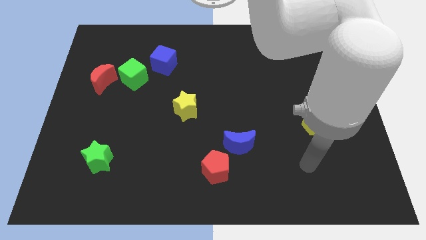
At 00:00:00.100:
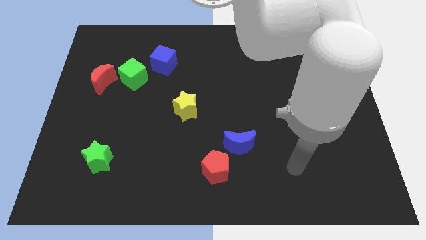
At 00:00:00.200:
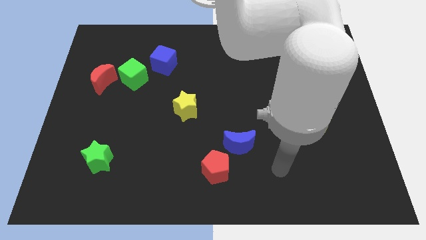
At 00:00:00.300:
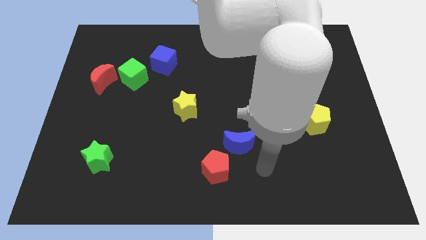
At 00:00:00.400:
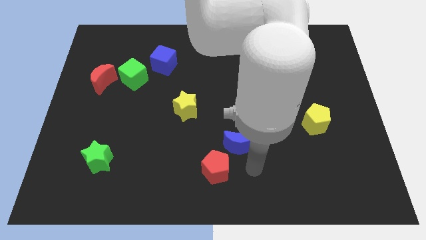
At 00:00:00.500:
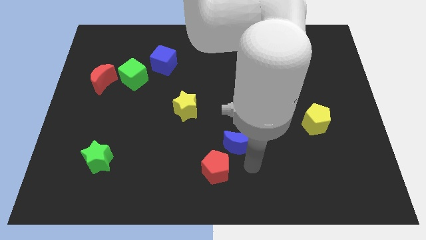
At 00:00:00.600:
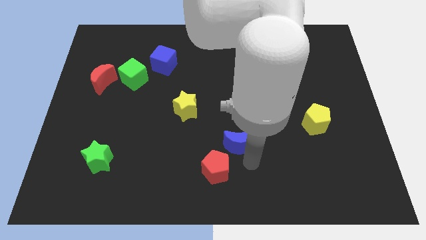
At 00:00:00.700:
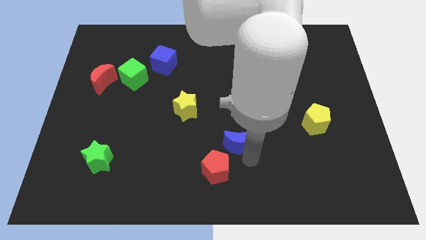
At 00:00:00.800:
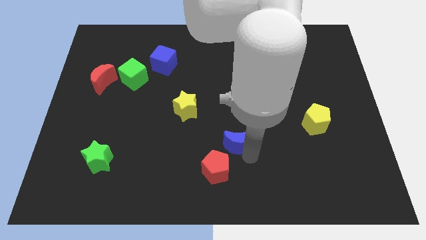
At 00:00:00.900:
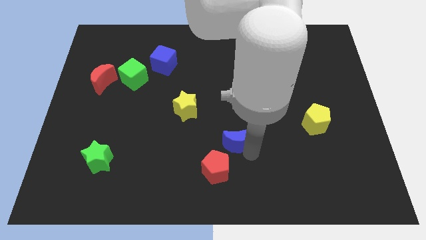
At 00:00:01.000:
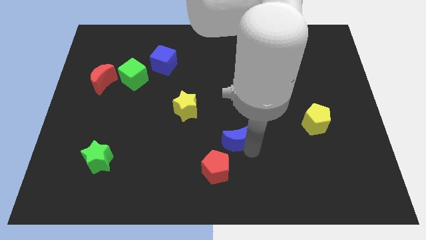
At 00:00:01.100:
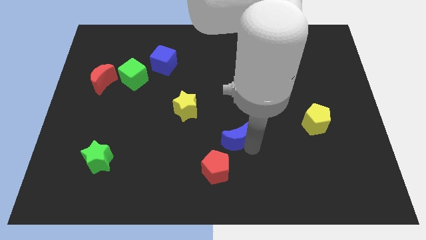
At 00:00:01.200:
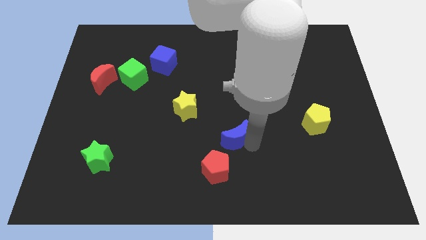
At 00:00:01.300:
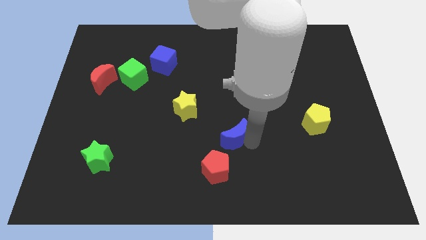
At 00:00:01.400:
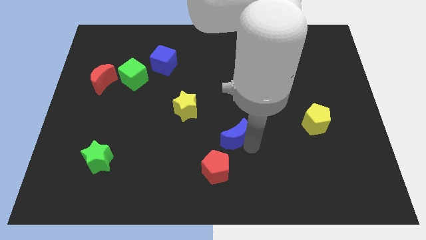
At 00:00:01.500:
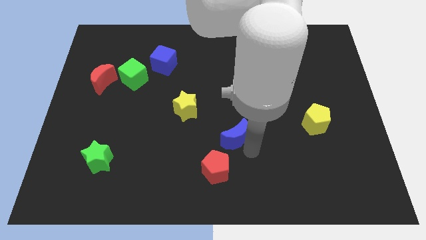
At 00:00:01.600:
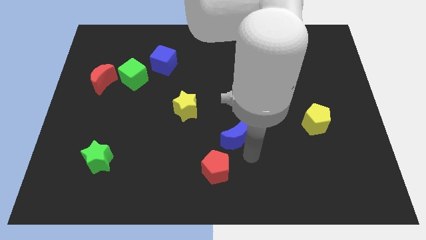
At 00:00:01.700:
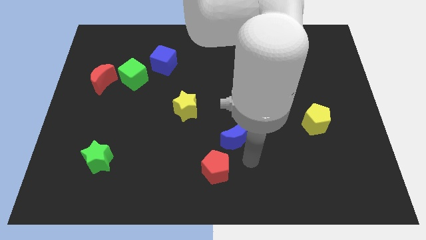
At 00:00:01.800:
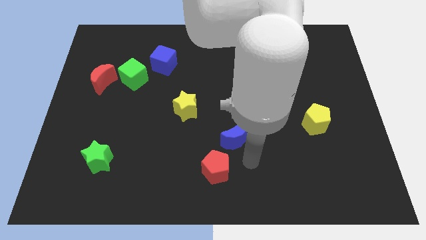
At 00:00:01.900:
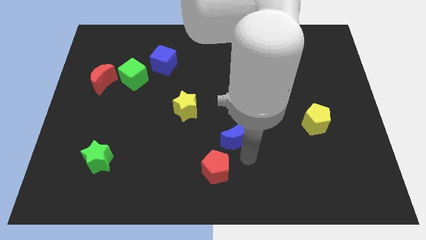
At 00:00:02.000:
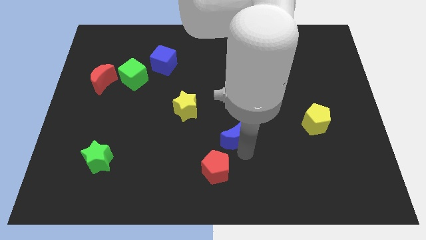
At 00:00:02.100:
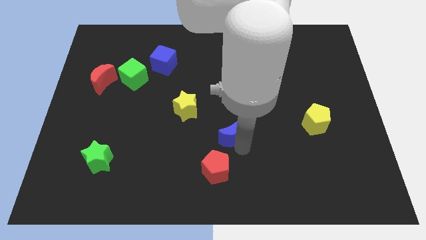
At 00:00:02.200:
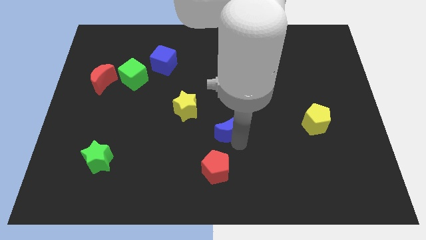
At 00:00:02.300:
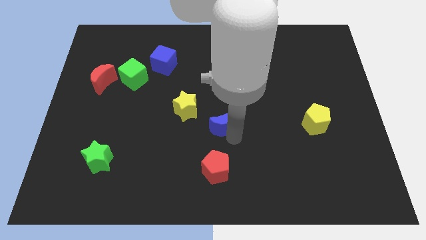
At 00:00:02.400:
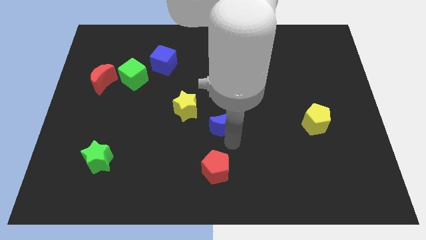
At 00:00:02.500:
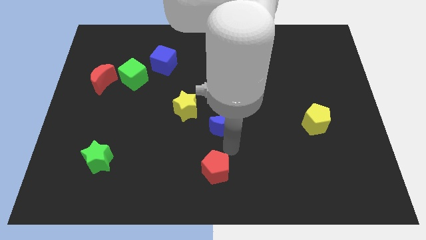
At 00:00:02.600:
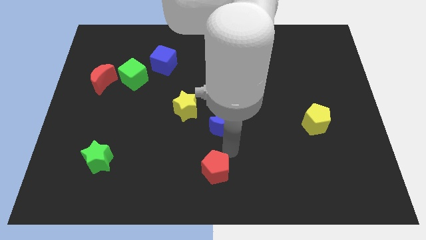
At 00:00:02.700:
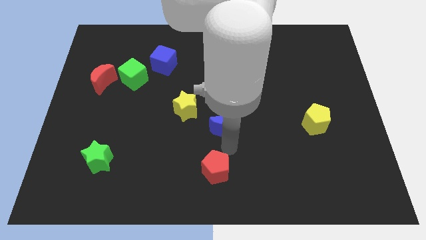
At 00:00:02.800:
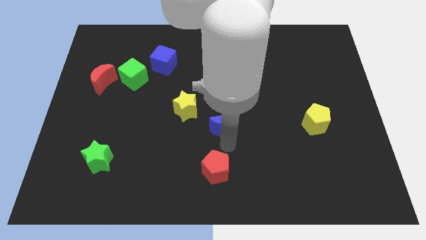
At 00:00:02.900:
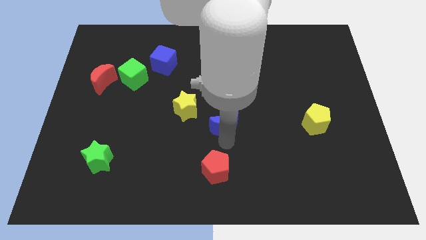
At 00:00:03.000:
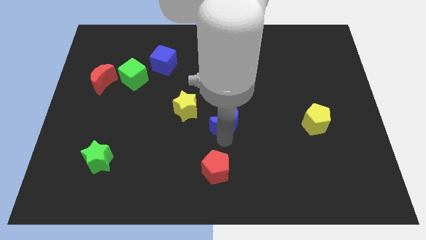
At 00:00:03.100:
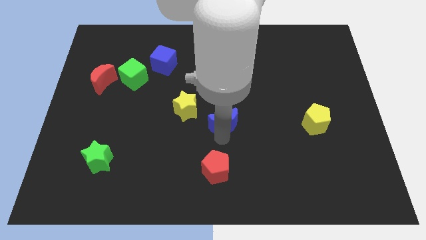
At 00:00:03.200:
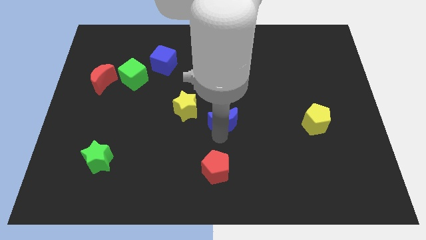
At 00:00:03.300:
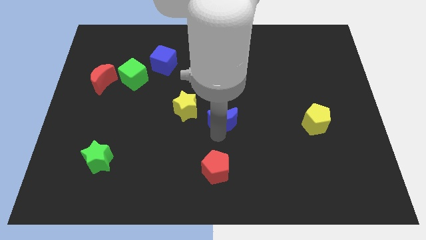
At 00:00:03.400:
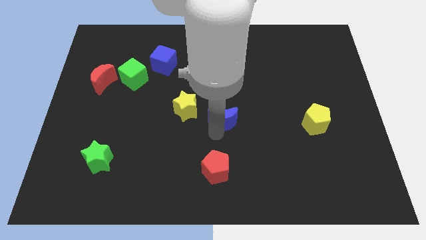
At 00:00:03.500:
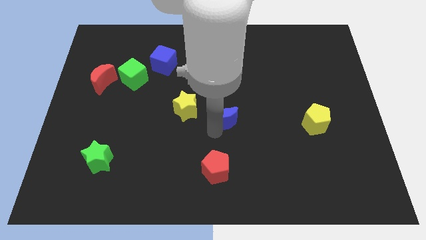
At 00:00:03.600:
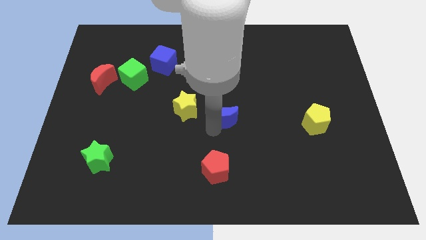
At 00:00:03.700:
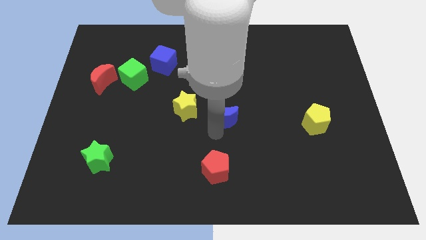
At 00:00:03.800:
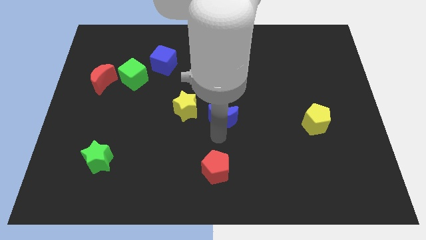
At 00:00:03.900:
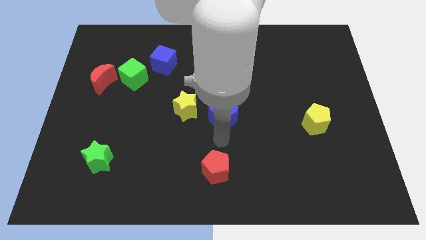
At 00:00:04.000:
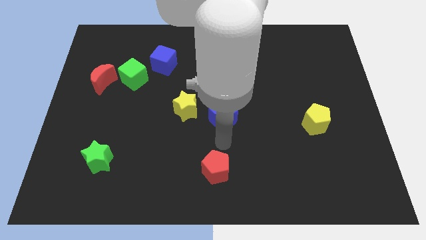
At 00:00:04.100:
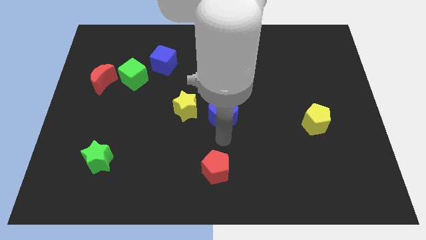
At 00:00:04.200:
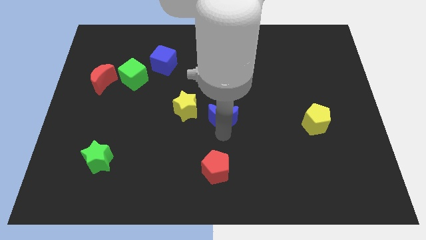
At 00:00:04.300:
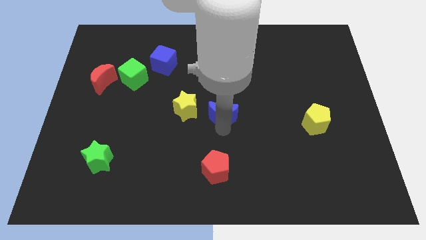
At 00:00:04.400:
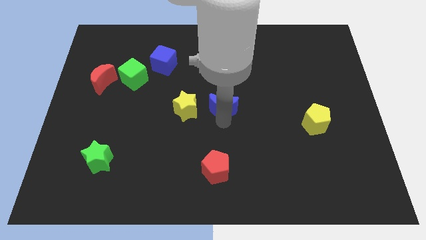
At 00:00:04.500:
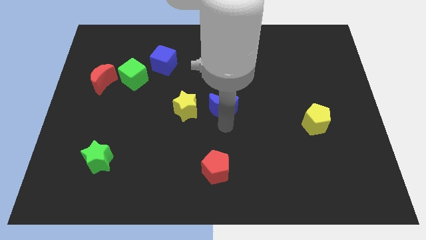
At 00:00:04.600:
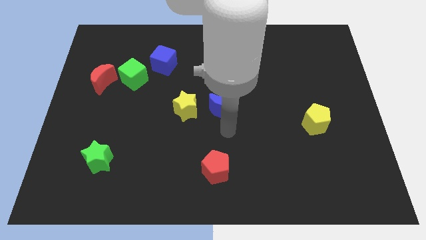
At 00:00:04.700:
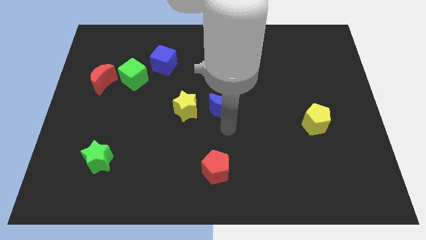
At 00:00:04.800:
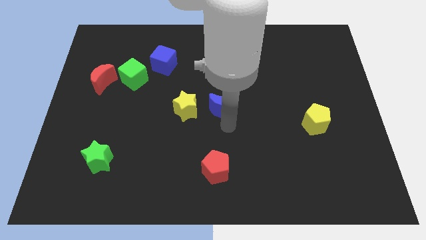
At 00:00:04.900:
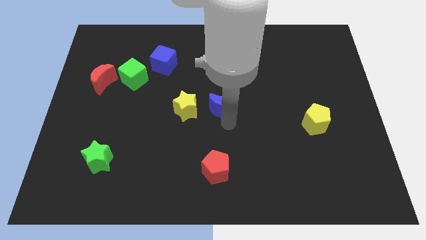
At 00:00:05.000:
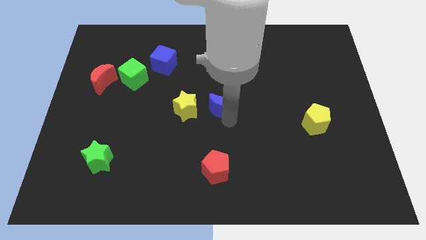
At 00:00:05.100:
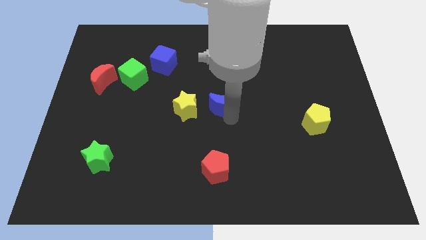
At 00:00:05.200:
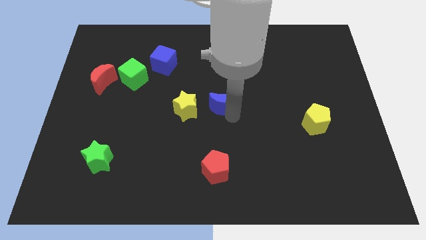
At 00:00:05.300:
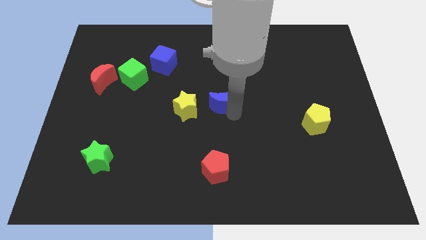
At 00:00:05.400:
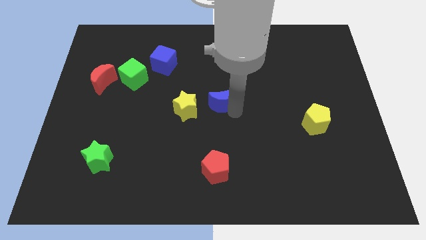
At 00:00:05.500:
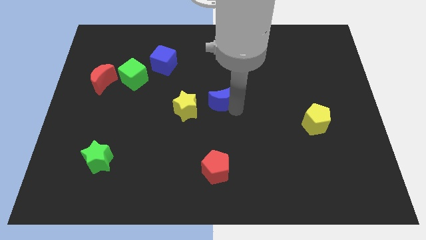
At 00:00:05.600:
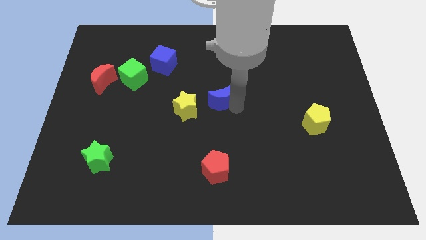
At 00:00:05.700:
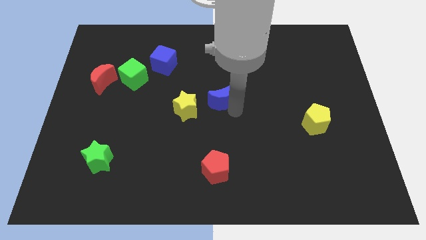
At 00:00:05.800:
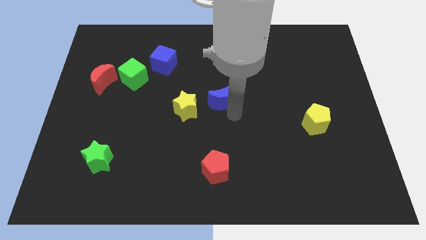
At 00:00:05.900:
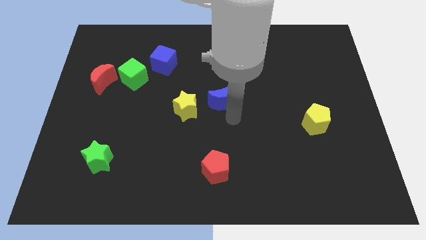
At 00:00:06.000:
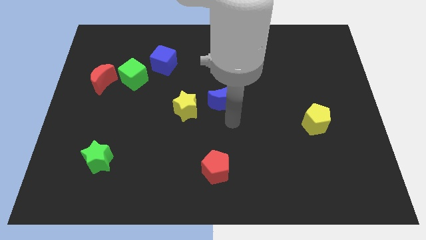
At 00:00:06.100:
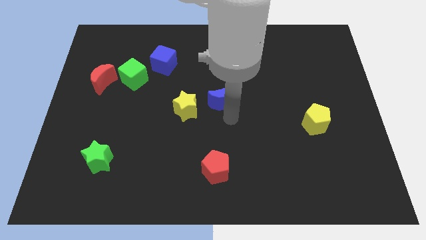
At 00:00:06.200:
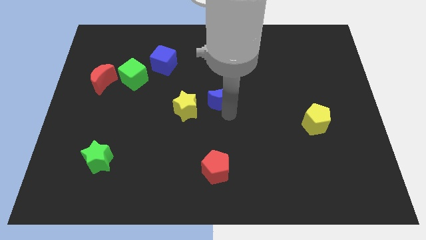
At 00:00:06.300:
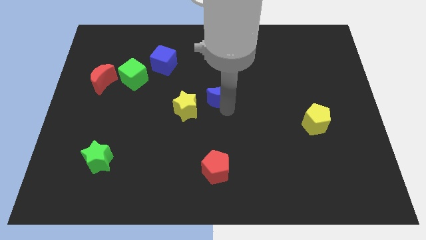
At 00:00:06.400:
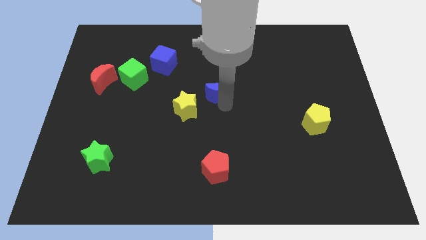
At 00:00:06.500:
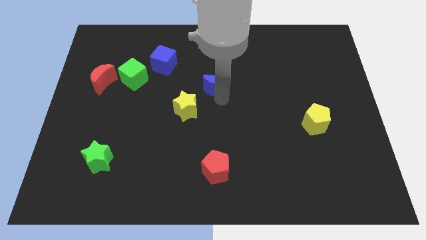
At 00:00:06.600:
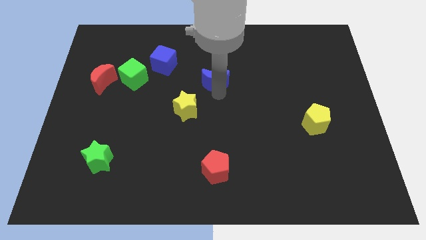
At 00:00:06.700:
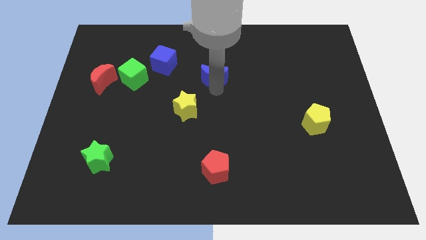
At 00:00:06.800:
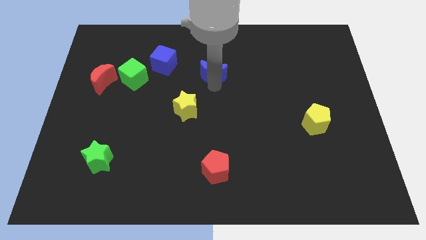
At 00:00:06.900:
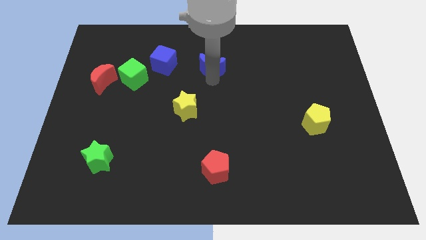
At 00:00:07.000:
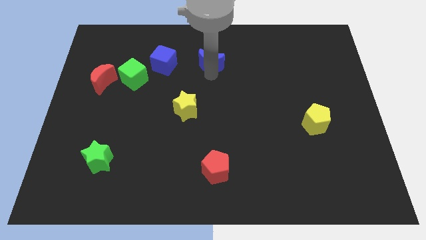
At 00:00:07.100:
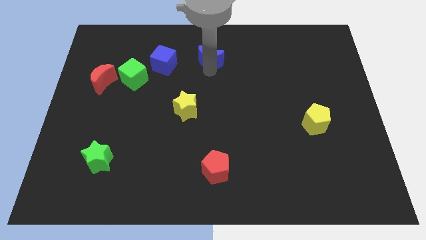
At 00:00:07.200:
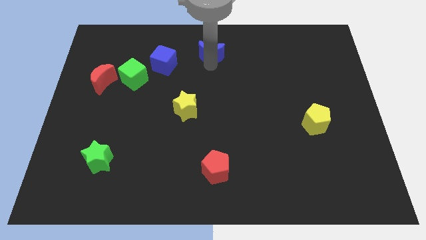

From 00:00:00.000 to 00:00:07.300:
put the blue moon to the towards your base

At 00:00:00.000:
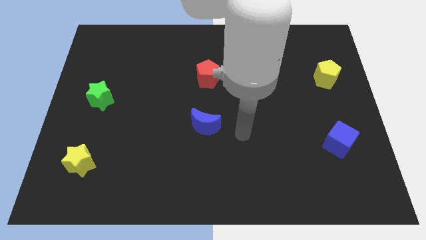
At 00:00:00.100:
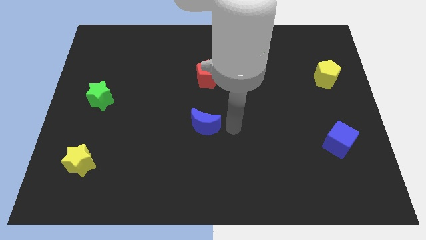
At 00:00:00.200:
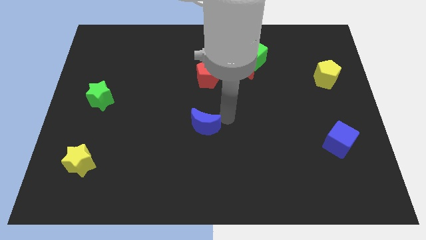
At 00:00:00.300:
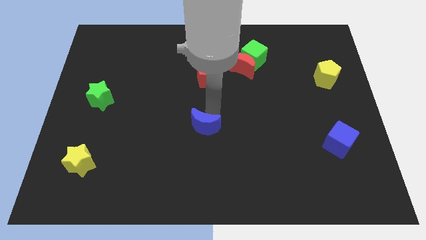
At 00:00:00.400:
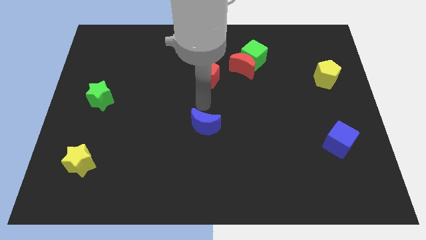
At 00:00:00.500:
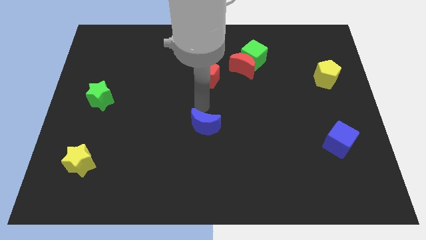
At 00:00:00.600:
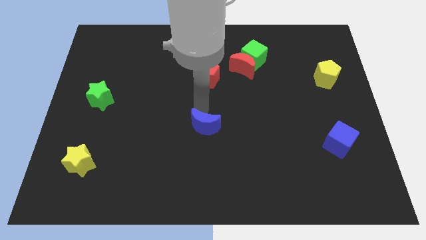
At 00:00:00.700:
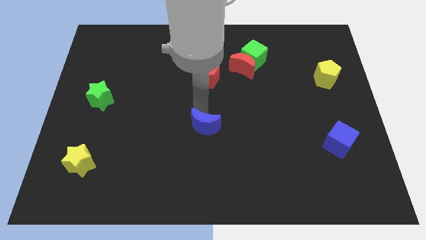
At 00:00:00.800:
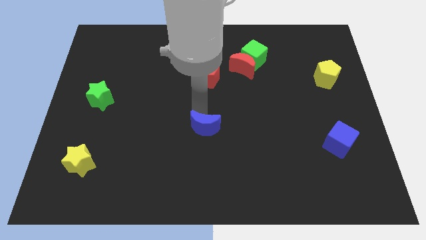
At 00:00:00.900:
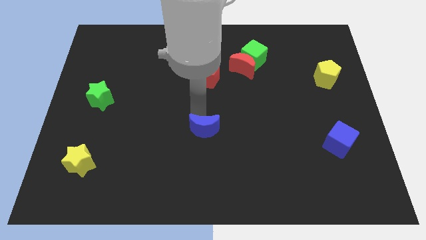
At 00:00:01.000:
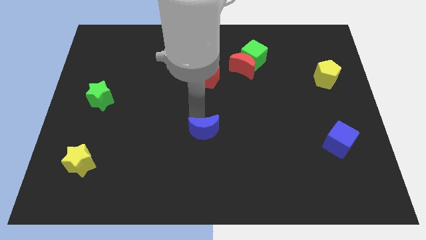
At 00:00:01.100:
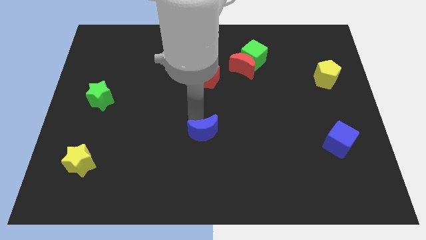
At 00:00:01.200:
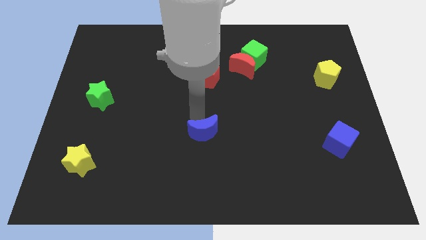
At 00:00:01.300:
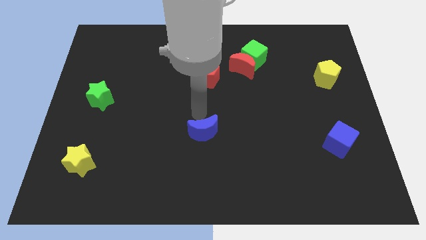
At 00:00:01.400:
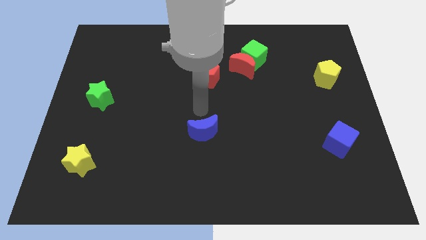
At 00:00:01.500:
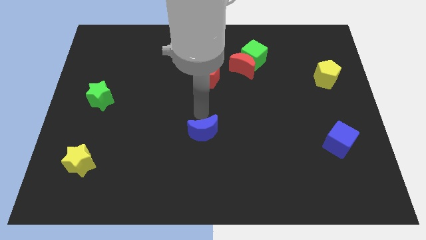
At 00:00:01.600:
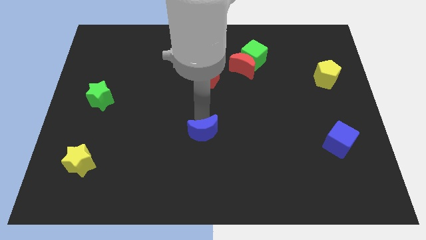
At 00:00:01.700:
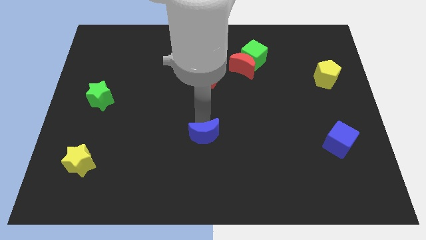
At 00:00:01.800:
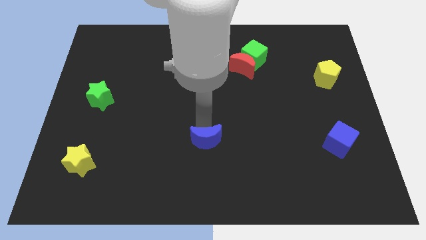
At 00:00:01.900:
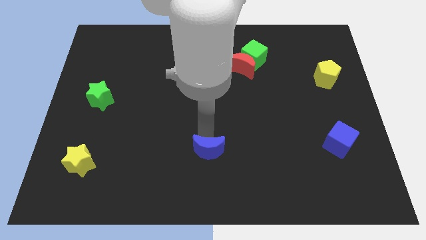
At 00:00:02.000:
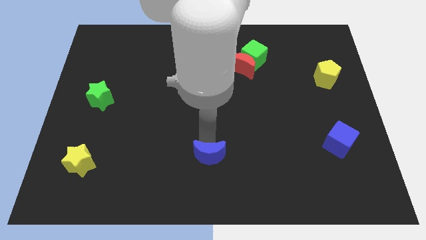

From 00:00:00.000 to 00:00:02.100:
put the blue moon to the bottom
